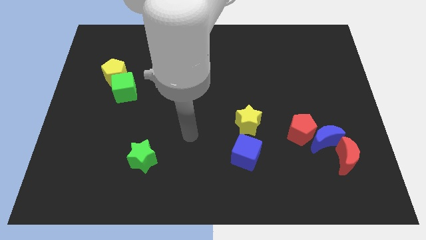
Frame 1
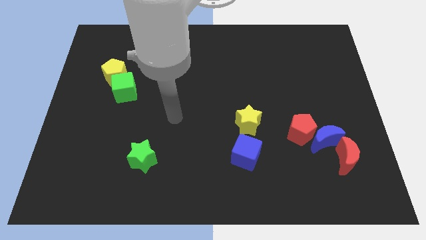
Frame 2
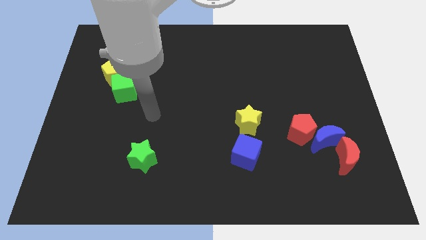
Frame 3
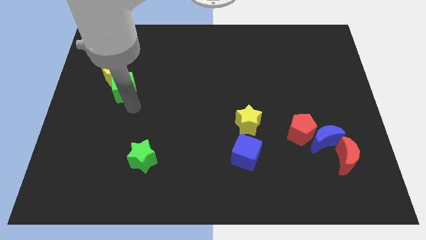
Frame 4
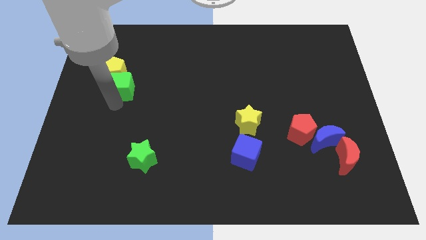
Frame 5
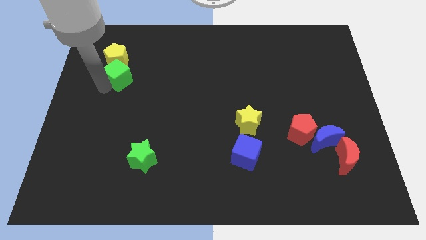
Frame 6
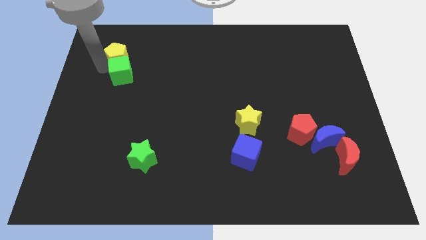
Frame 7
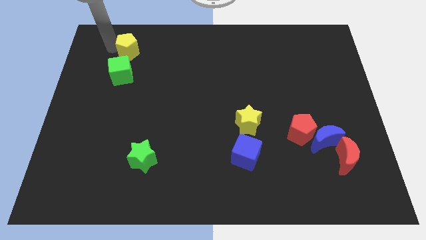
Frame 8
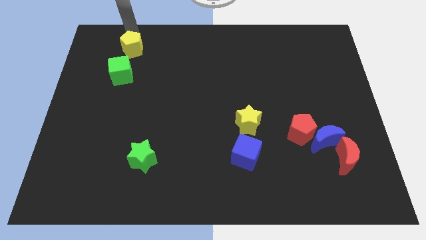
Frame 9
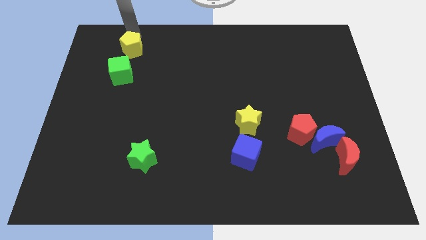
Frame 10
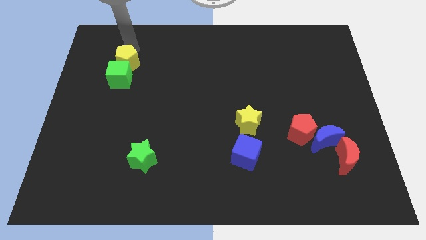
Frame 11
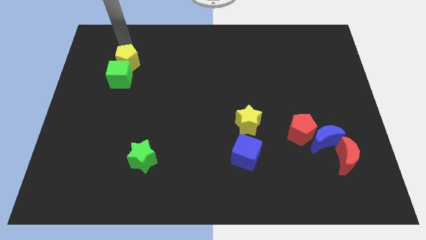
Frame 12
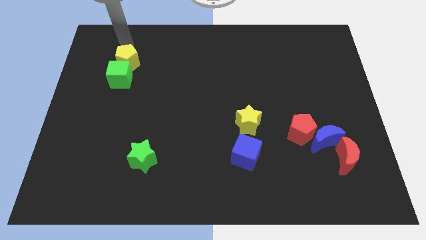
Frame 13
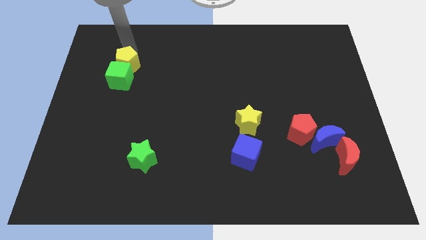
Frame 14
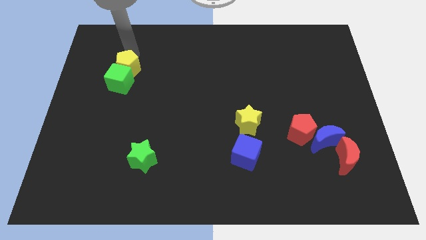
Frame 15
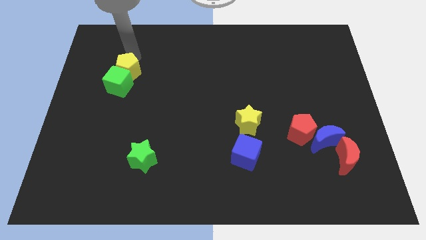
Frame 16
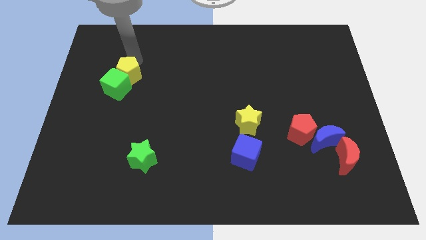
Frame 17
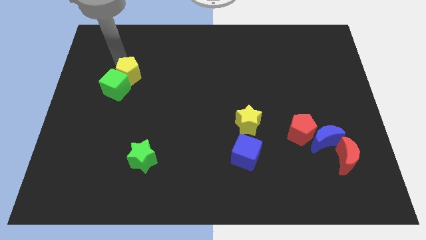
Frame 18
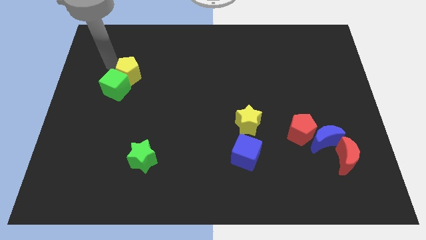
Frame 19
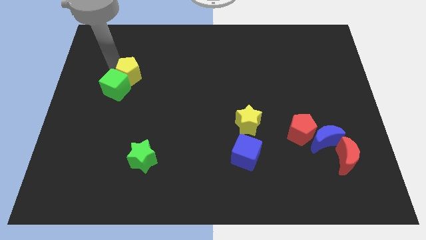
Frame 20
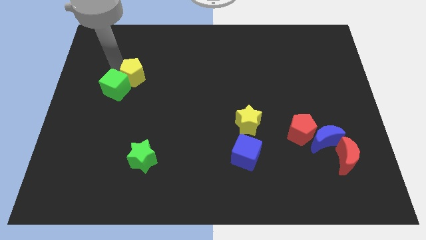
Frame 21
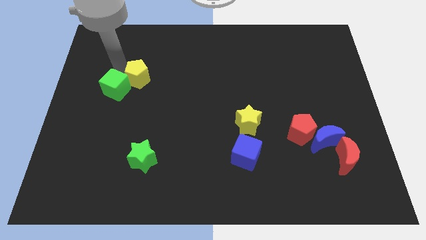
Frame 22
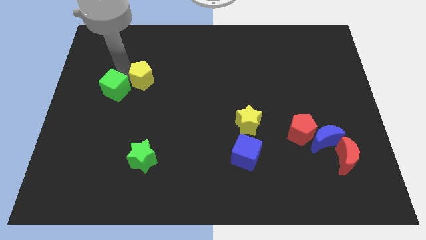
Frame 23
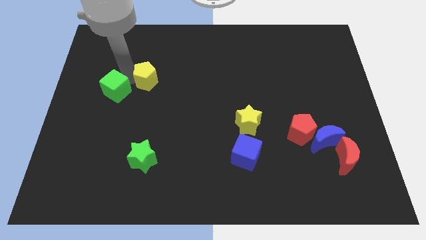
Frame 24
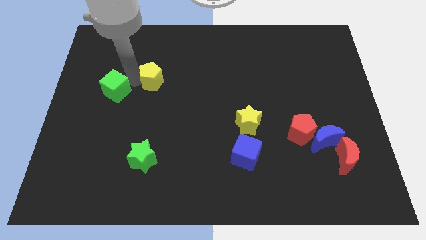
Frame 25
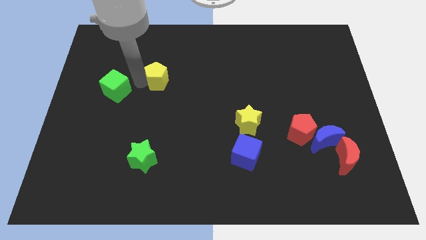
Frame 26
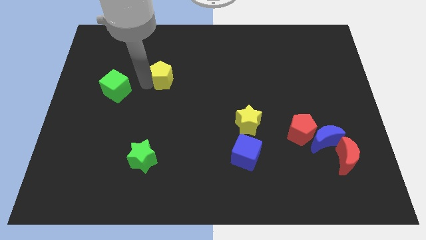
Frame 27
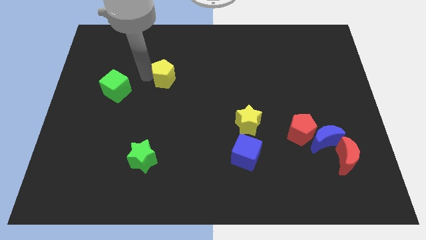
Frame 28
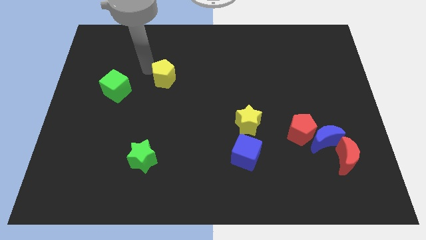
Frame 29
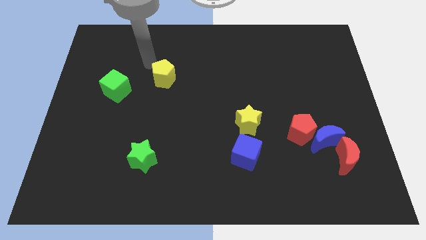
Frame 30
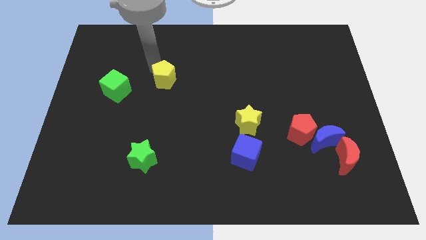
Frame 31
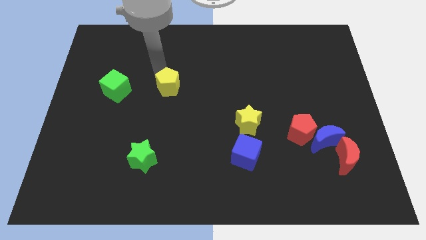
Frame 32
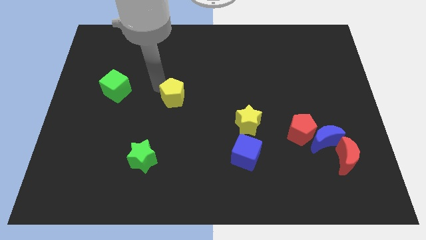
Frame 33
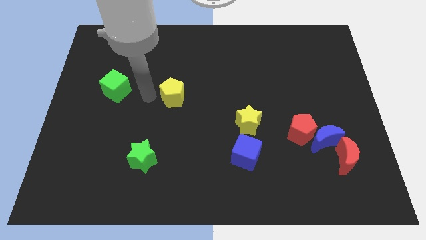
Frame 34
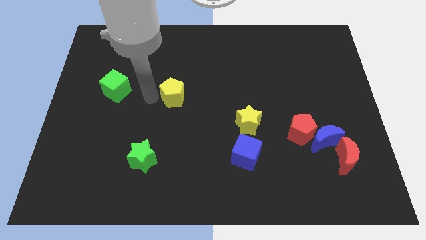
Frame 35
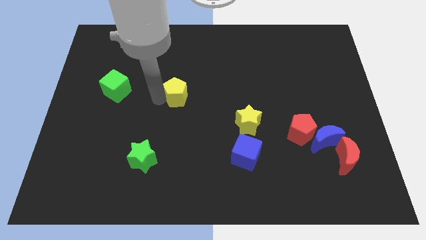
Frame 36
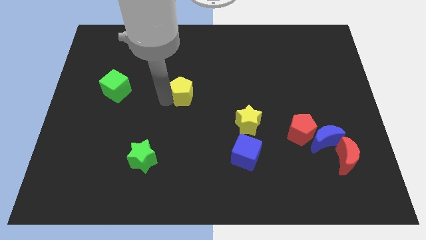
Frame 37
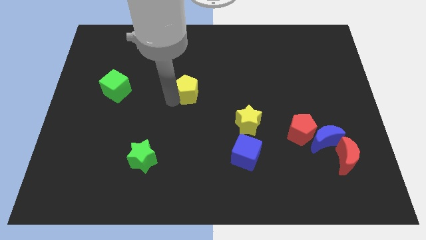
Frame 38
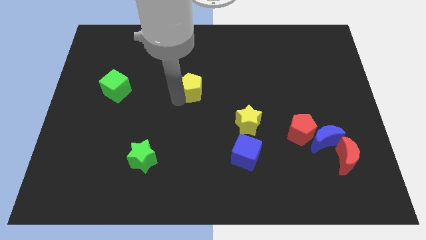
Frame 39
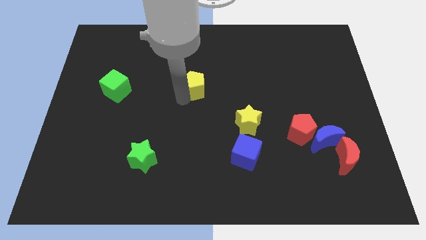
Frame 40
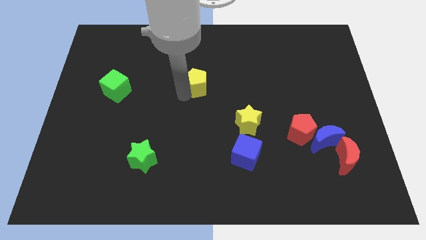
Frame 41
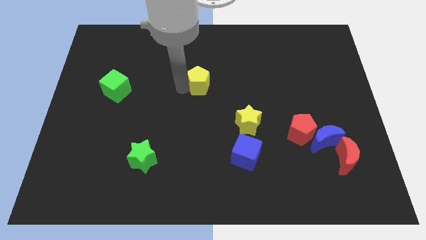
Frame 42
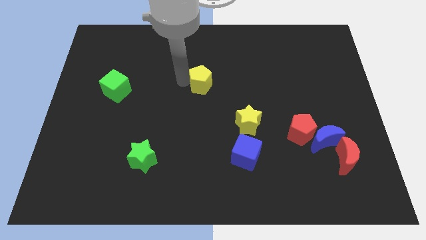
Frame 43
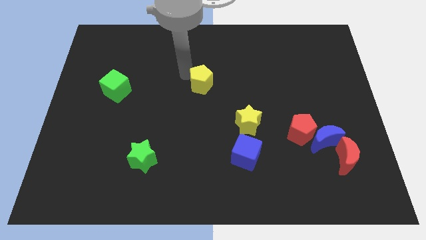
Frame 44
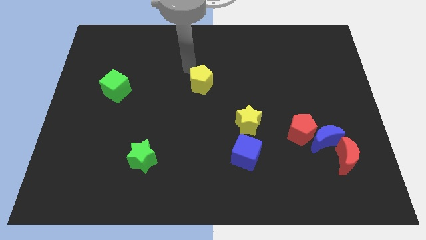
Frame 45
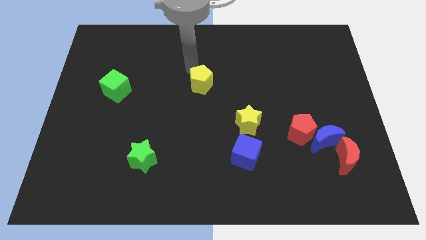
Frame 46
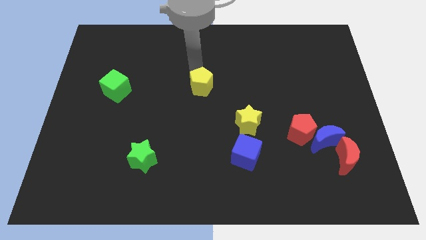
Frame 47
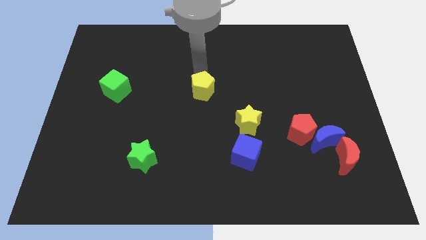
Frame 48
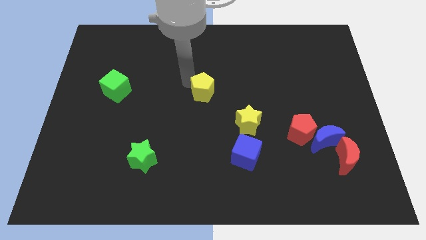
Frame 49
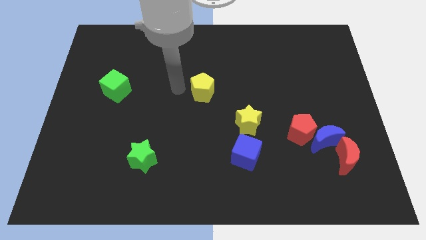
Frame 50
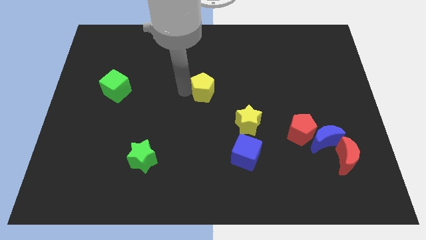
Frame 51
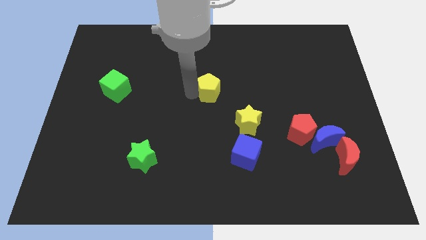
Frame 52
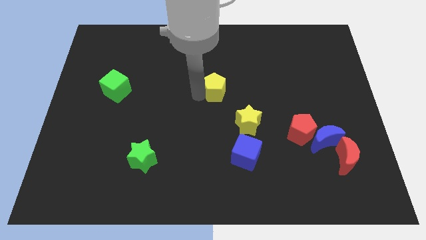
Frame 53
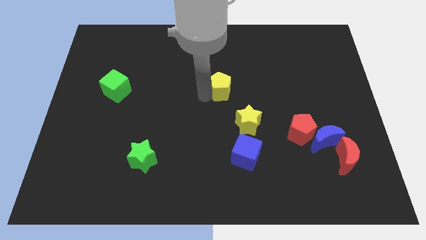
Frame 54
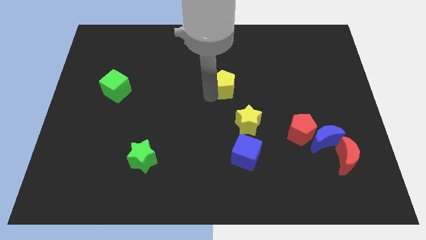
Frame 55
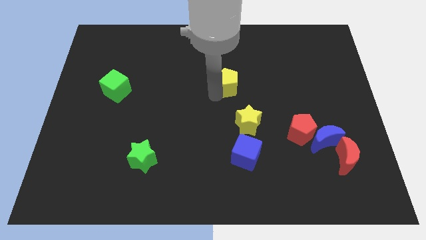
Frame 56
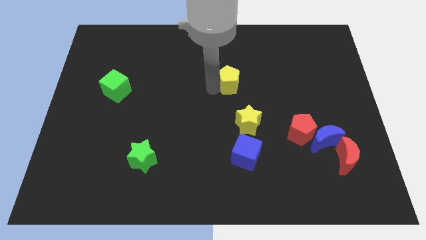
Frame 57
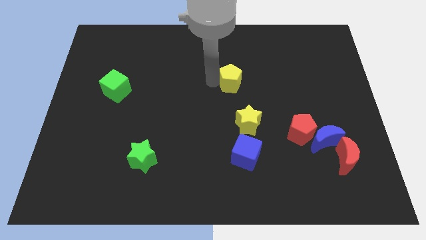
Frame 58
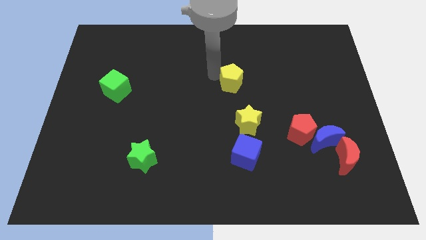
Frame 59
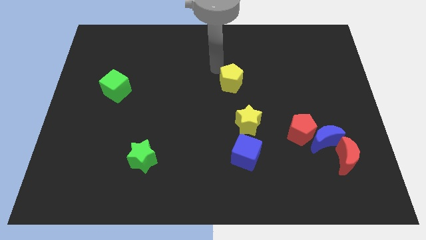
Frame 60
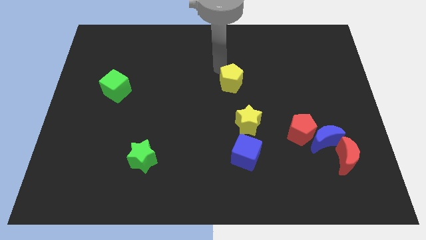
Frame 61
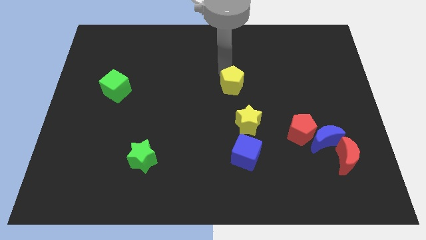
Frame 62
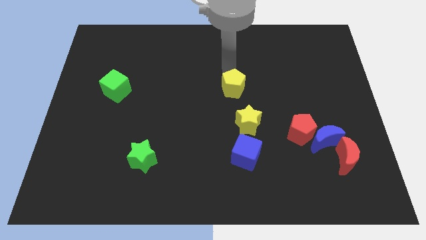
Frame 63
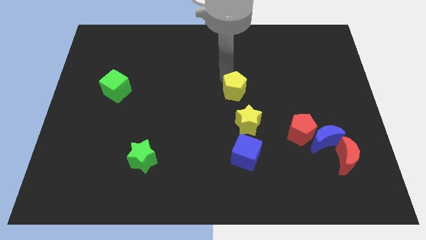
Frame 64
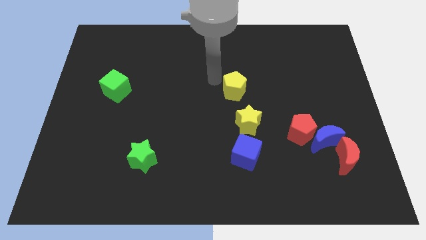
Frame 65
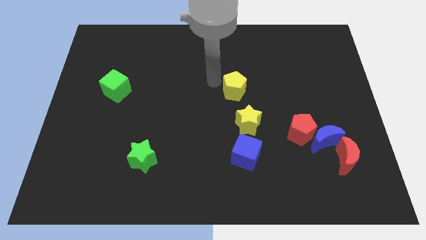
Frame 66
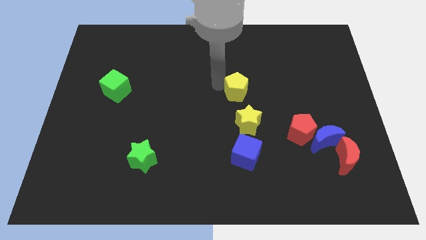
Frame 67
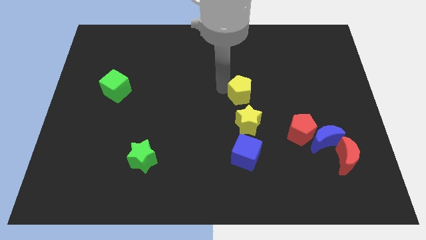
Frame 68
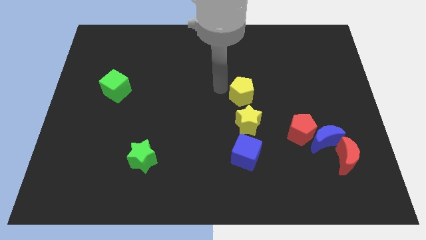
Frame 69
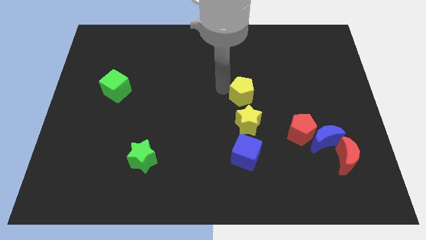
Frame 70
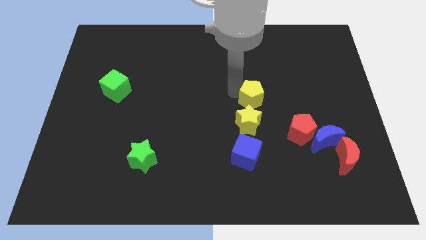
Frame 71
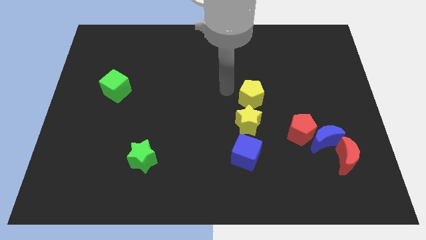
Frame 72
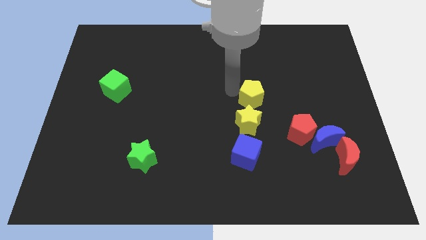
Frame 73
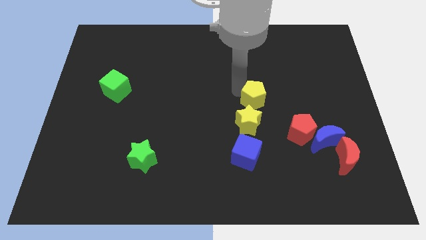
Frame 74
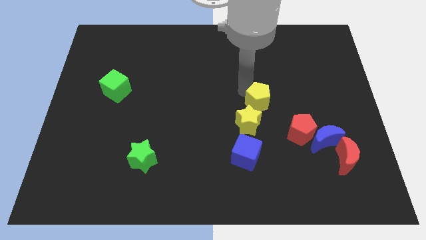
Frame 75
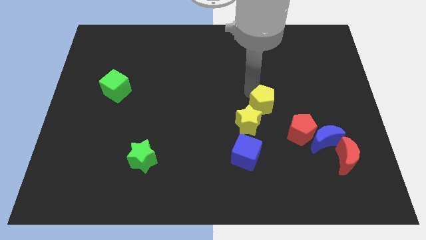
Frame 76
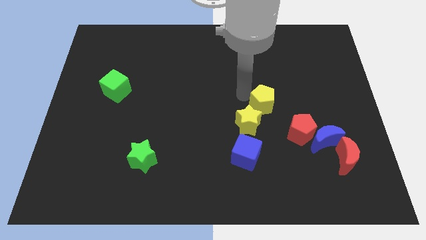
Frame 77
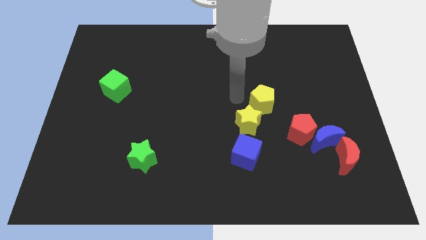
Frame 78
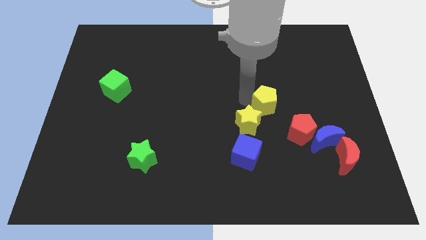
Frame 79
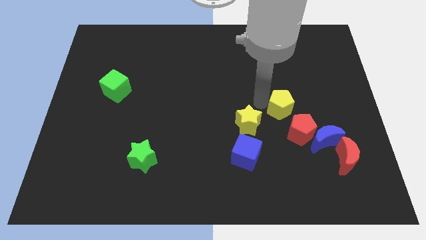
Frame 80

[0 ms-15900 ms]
slide the yellow pentagon just right of the yellow star
